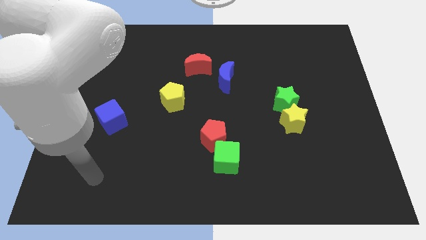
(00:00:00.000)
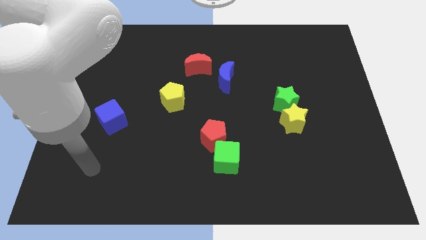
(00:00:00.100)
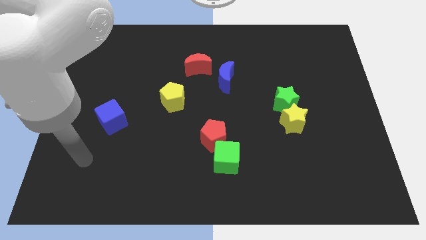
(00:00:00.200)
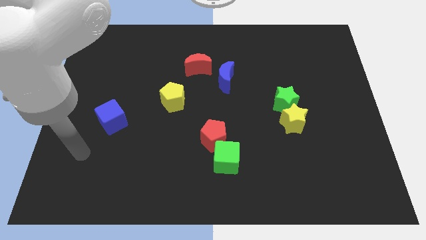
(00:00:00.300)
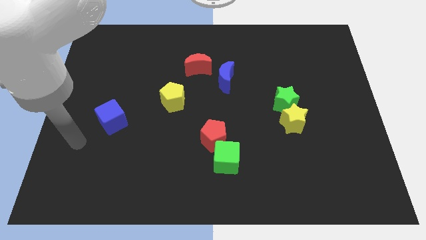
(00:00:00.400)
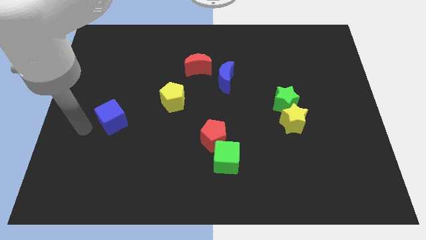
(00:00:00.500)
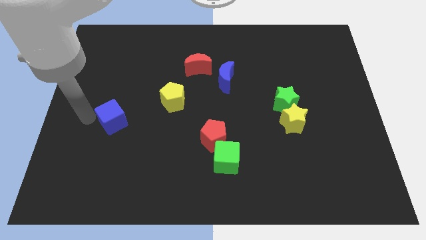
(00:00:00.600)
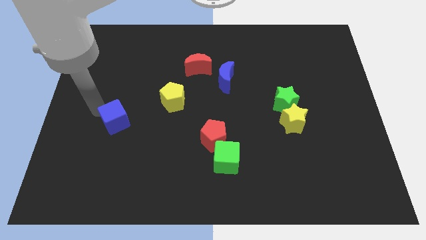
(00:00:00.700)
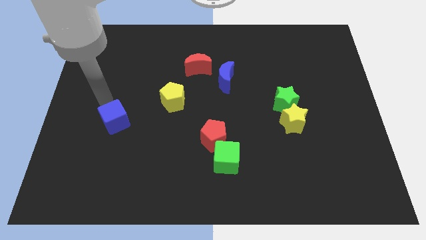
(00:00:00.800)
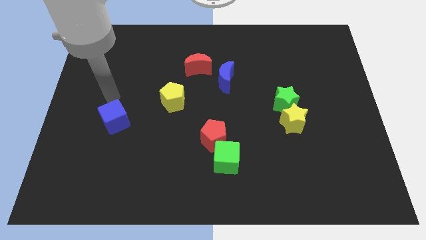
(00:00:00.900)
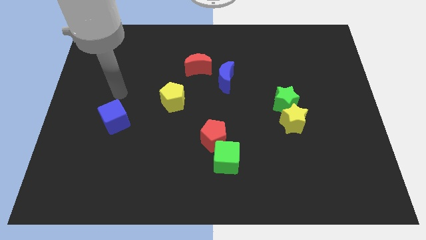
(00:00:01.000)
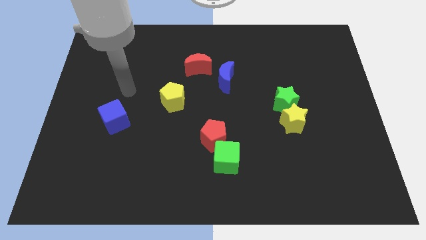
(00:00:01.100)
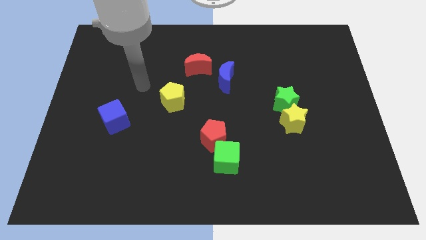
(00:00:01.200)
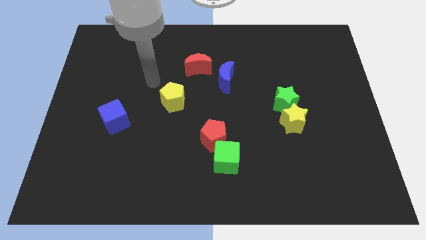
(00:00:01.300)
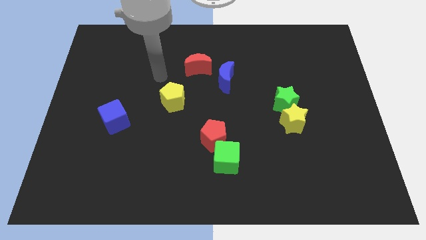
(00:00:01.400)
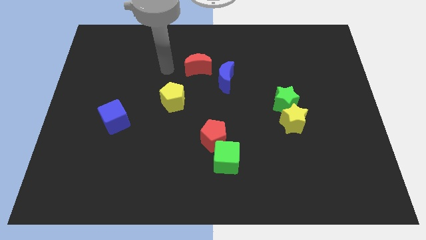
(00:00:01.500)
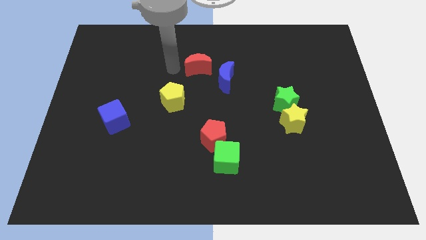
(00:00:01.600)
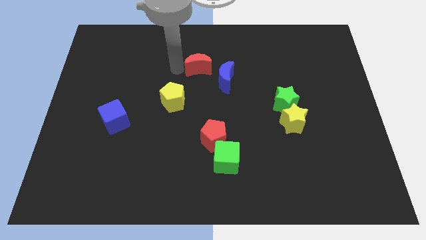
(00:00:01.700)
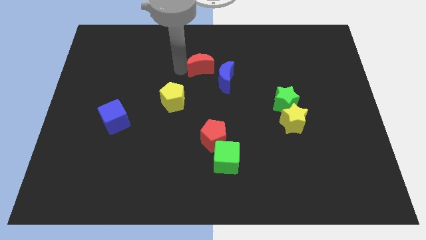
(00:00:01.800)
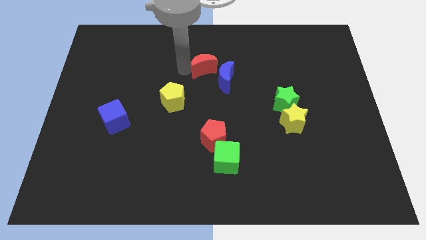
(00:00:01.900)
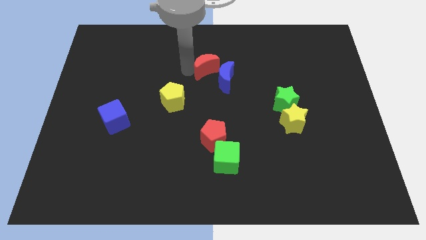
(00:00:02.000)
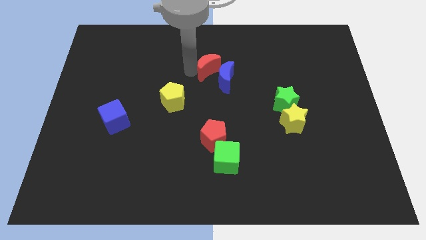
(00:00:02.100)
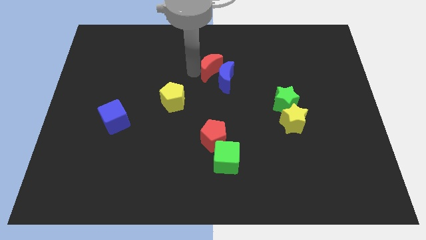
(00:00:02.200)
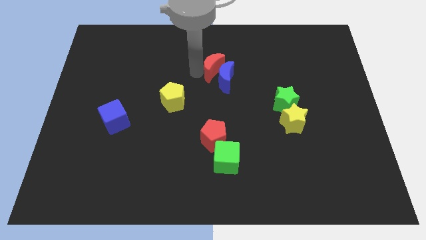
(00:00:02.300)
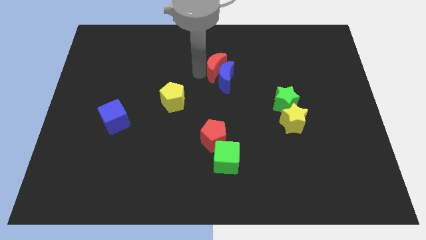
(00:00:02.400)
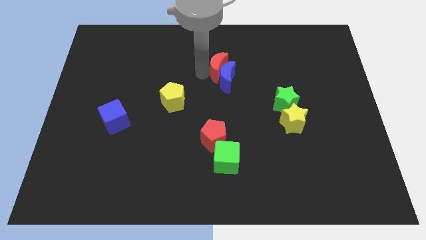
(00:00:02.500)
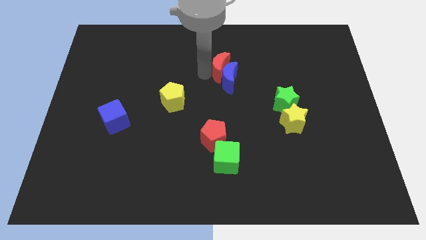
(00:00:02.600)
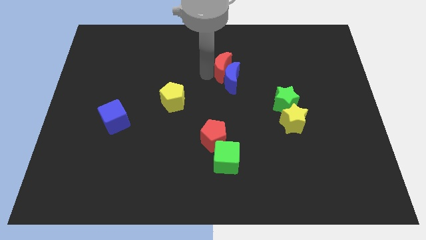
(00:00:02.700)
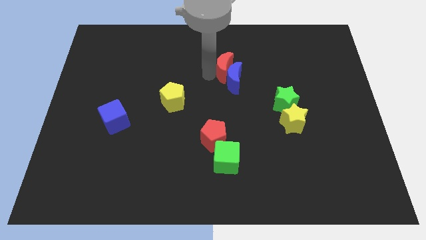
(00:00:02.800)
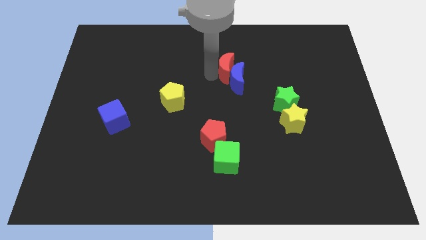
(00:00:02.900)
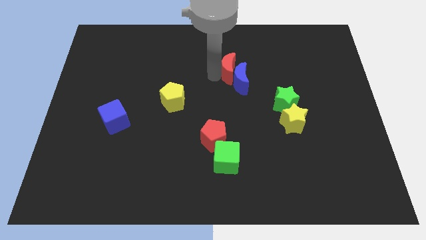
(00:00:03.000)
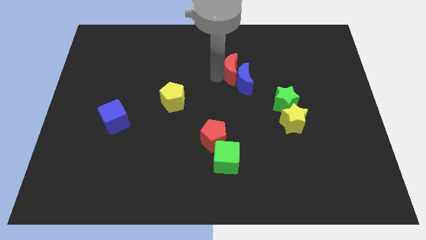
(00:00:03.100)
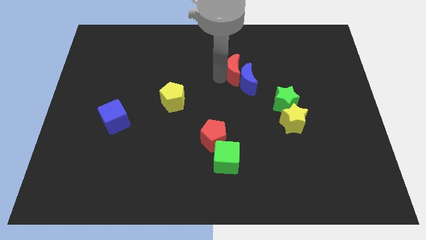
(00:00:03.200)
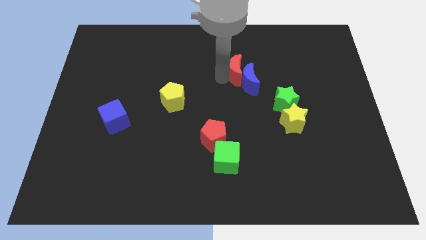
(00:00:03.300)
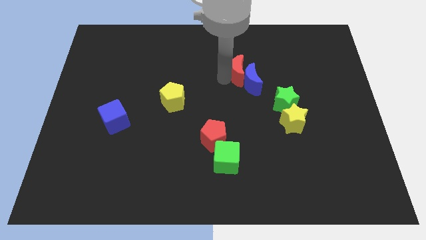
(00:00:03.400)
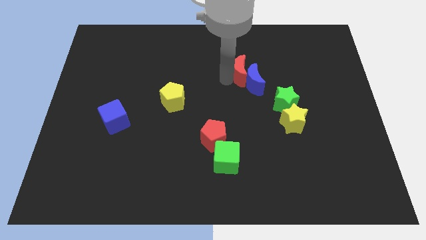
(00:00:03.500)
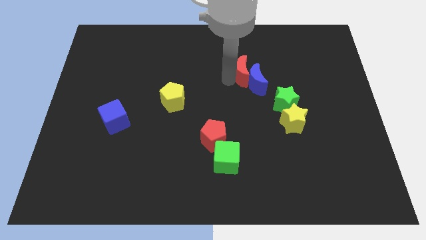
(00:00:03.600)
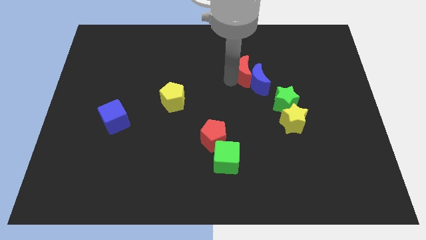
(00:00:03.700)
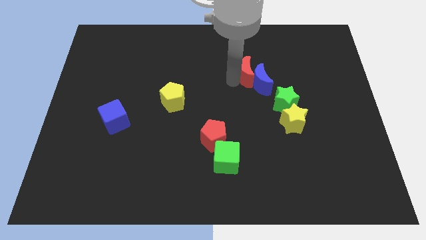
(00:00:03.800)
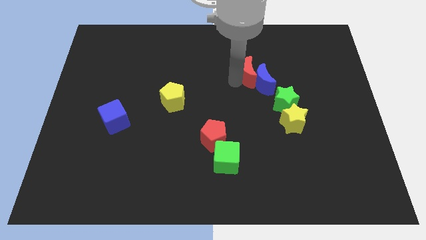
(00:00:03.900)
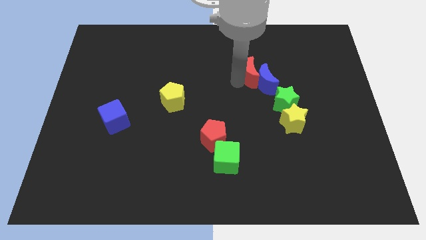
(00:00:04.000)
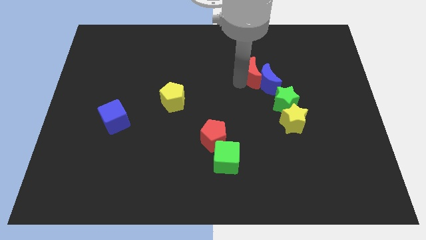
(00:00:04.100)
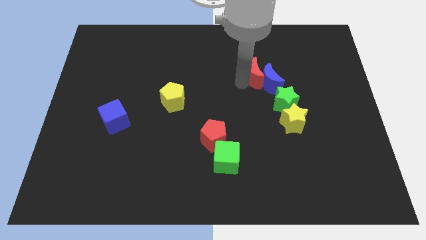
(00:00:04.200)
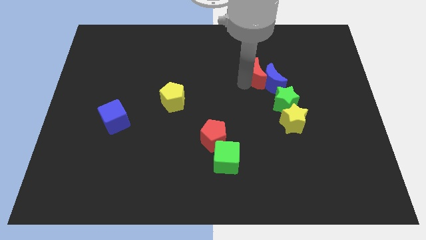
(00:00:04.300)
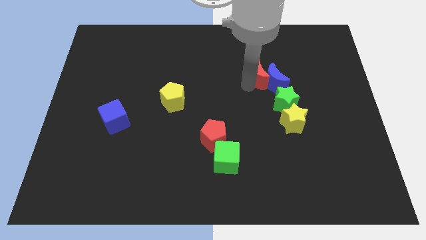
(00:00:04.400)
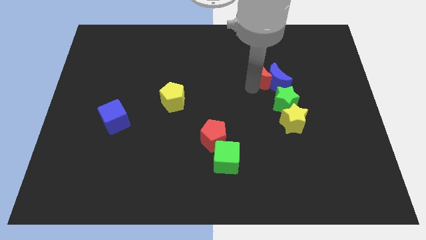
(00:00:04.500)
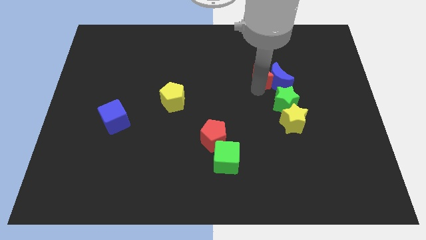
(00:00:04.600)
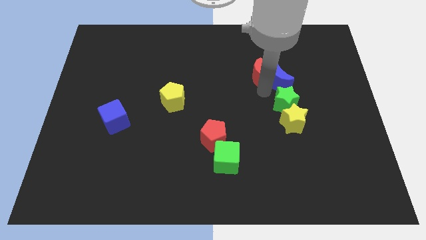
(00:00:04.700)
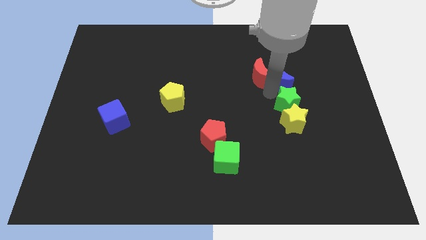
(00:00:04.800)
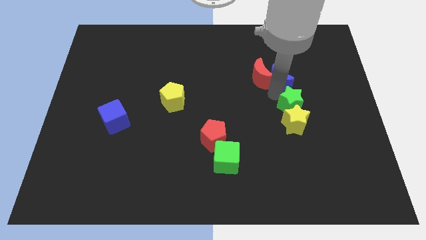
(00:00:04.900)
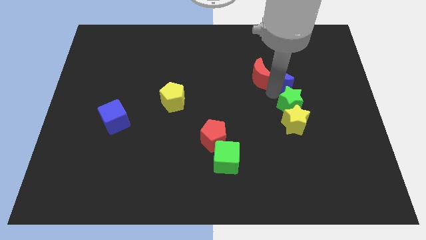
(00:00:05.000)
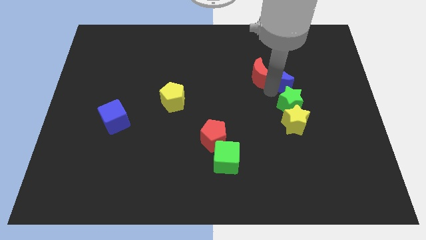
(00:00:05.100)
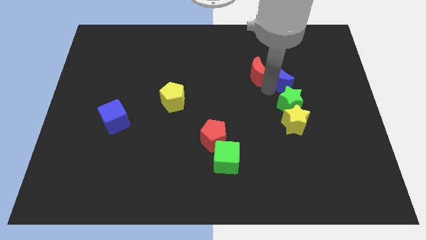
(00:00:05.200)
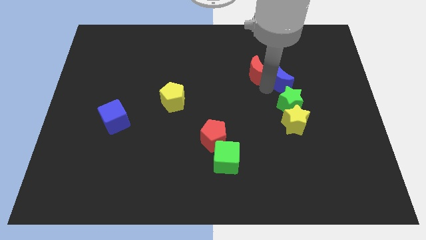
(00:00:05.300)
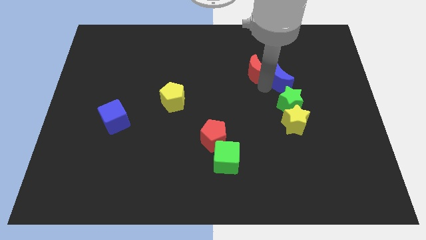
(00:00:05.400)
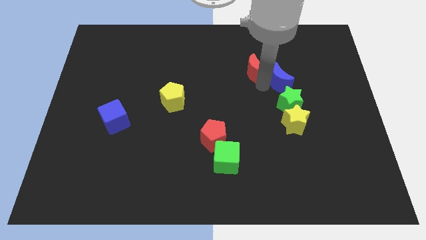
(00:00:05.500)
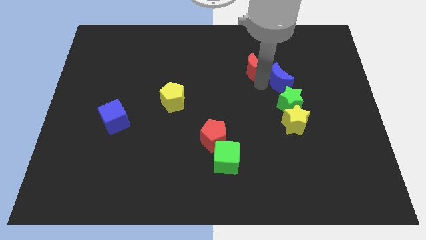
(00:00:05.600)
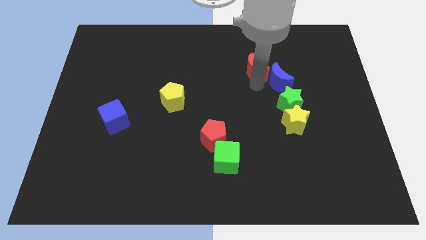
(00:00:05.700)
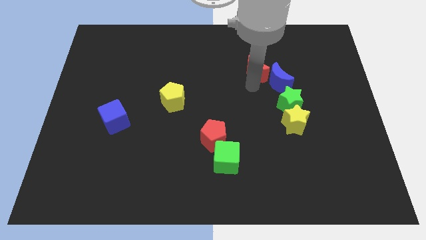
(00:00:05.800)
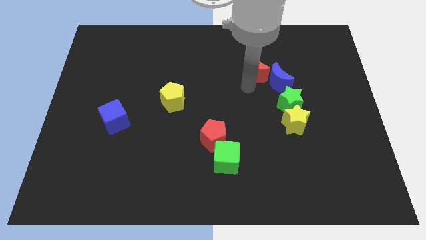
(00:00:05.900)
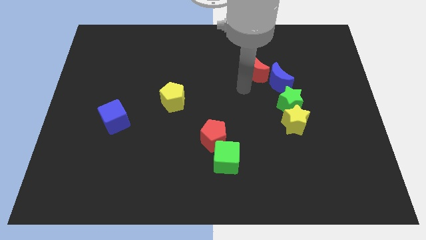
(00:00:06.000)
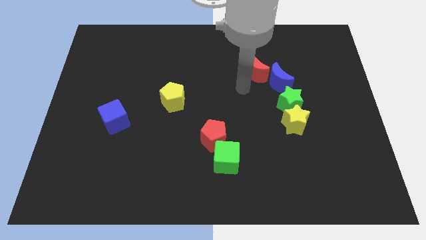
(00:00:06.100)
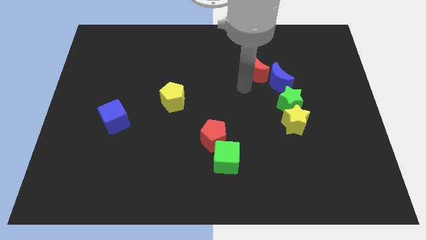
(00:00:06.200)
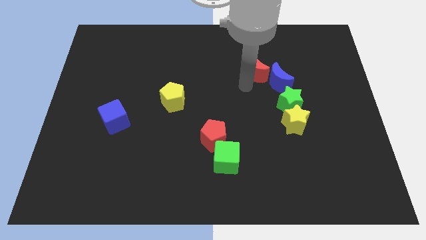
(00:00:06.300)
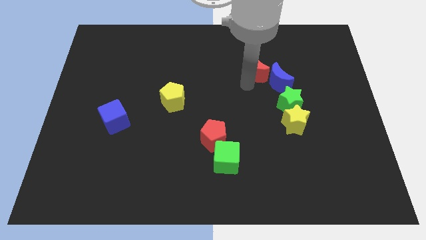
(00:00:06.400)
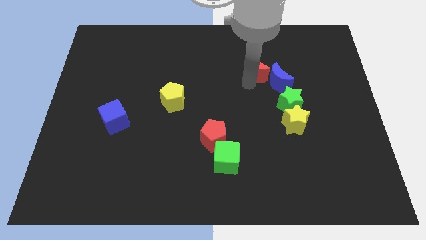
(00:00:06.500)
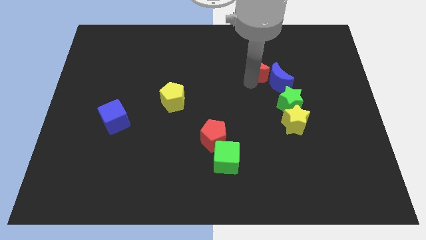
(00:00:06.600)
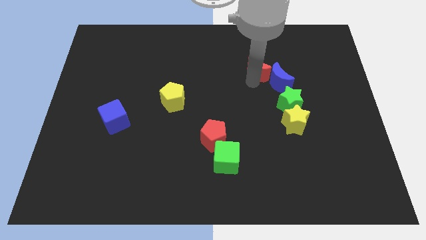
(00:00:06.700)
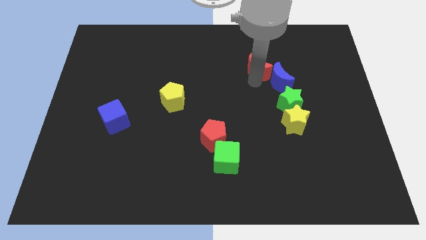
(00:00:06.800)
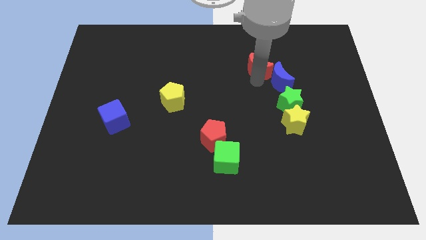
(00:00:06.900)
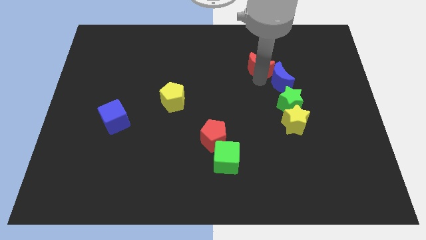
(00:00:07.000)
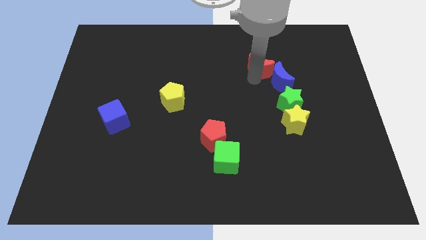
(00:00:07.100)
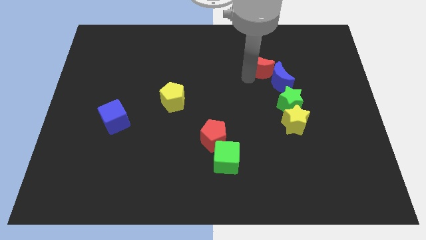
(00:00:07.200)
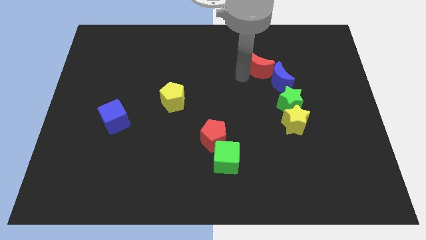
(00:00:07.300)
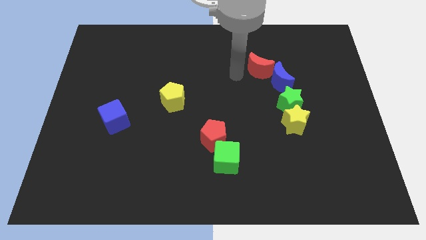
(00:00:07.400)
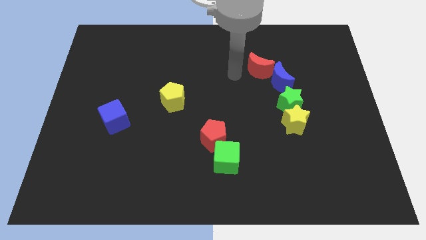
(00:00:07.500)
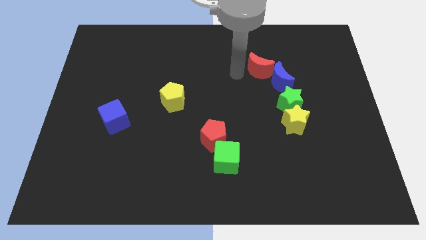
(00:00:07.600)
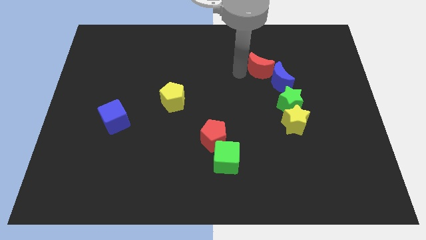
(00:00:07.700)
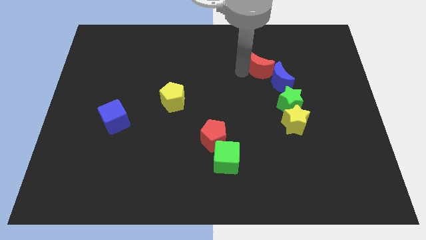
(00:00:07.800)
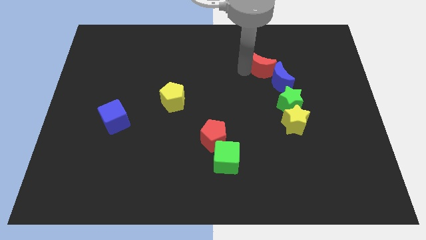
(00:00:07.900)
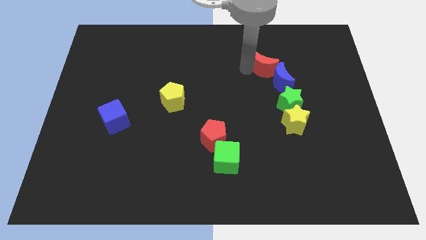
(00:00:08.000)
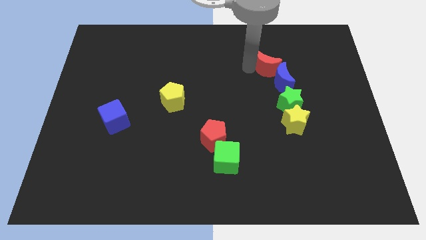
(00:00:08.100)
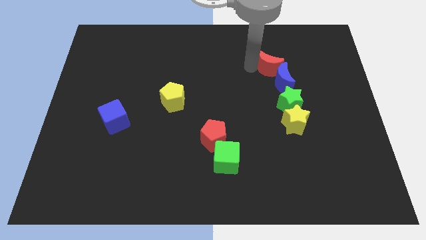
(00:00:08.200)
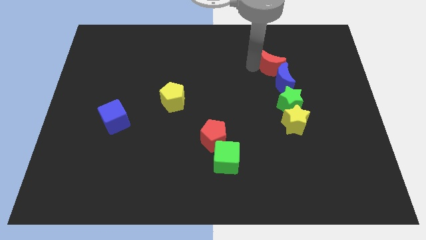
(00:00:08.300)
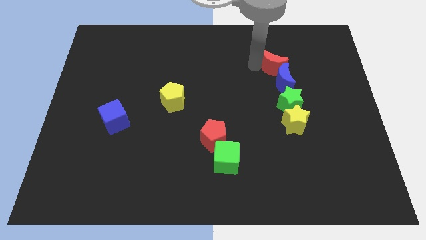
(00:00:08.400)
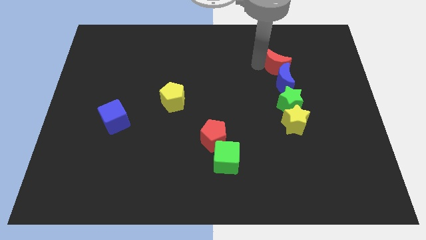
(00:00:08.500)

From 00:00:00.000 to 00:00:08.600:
push the red moon to the right
